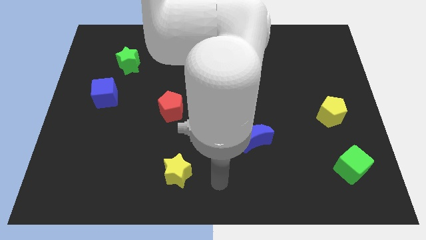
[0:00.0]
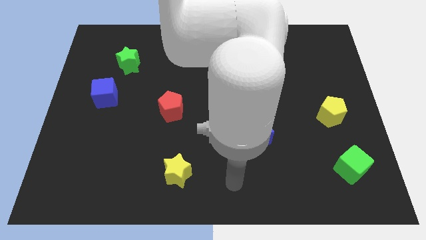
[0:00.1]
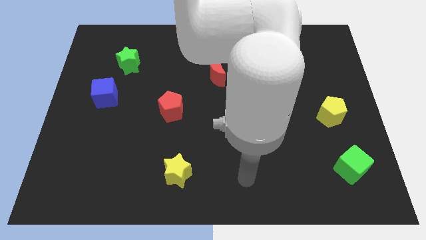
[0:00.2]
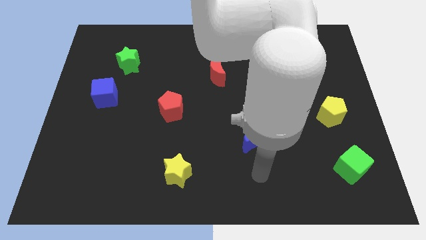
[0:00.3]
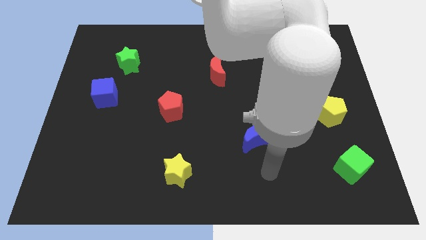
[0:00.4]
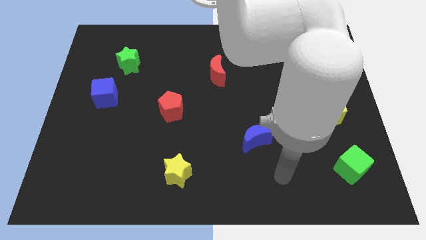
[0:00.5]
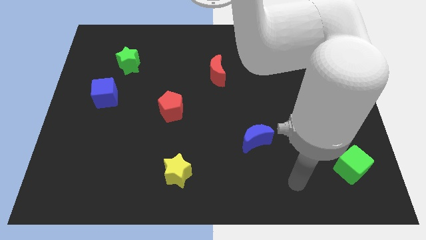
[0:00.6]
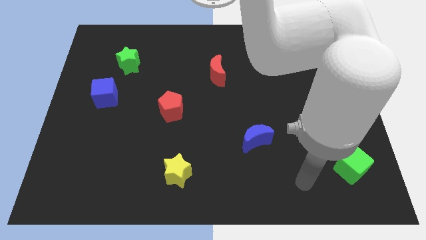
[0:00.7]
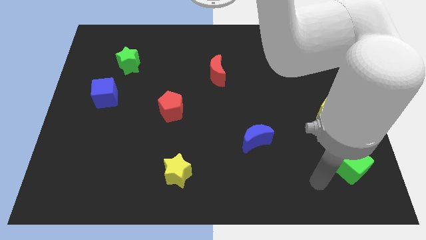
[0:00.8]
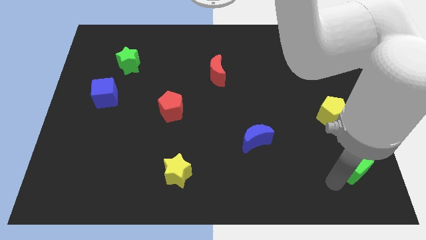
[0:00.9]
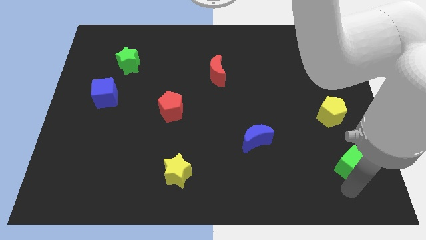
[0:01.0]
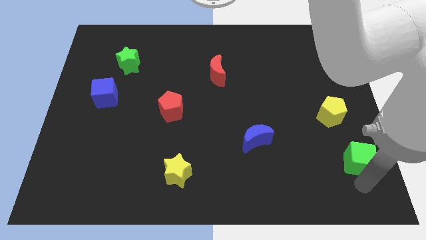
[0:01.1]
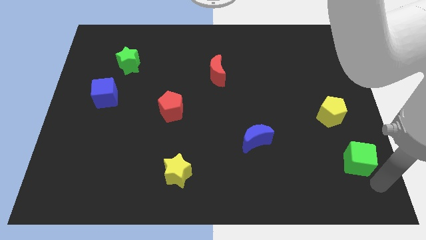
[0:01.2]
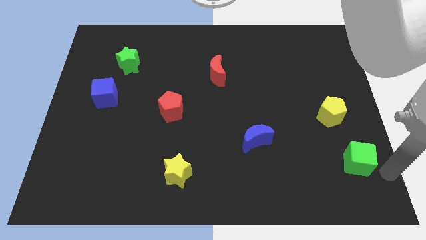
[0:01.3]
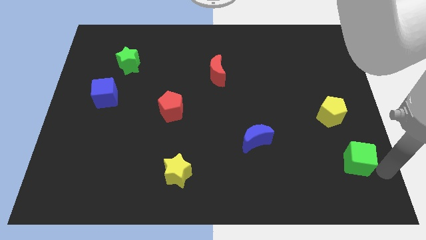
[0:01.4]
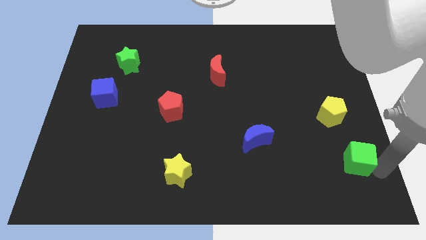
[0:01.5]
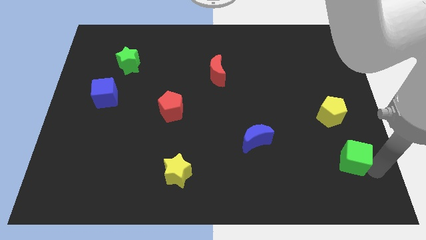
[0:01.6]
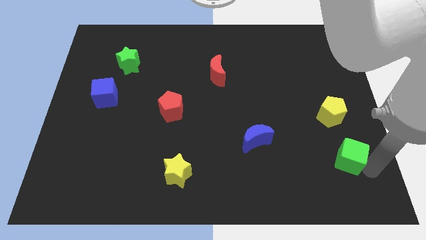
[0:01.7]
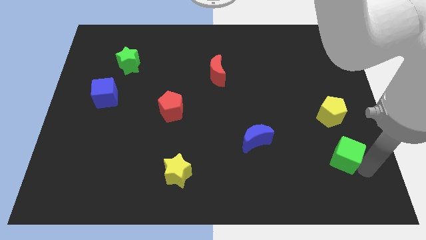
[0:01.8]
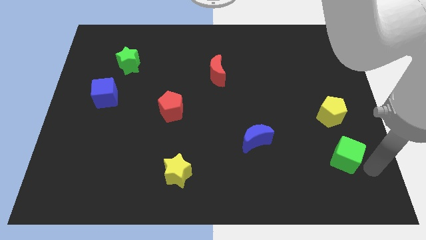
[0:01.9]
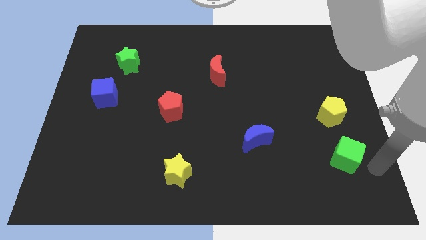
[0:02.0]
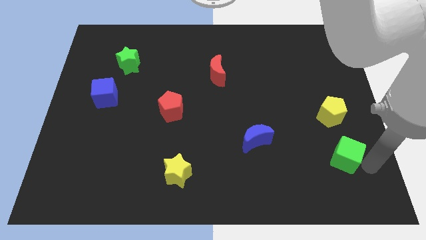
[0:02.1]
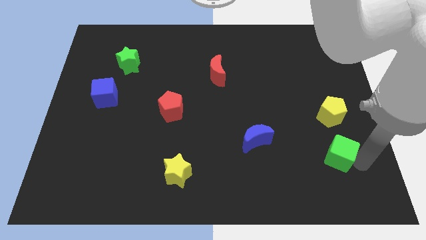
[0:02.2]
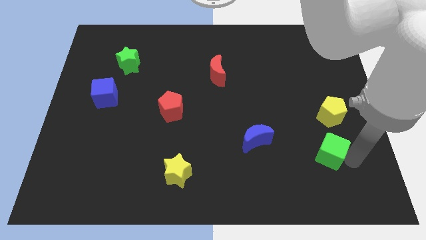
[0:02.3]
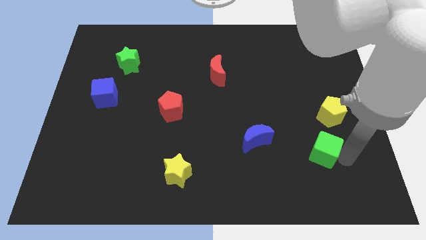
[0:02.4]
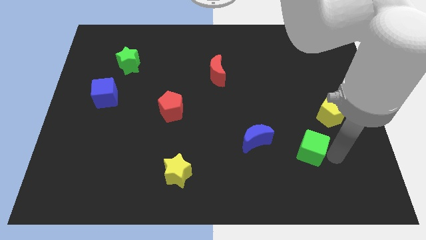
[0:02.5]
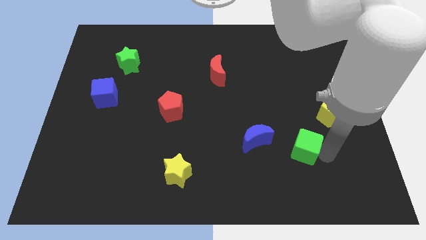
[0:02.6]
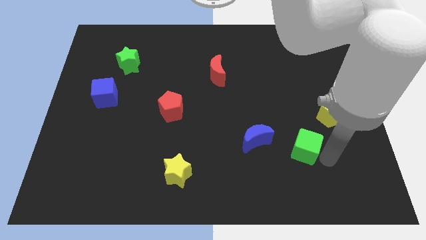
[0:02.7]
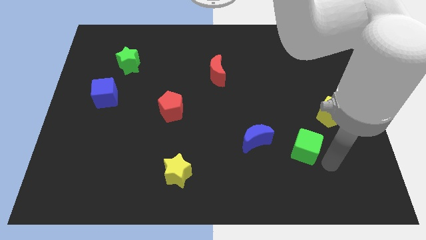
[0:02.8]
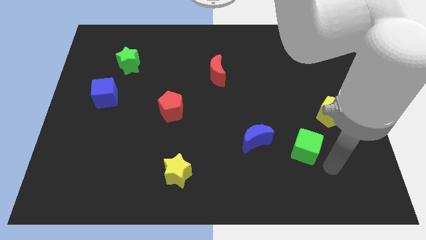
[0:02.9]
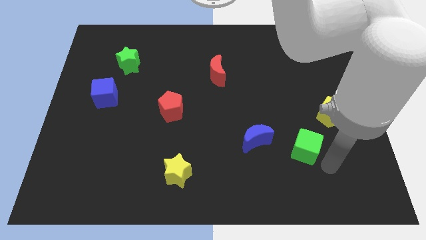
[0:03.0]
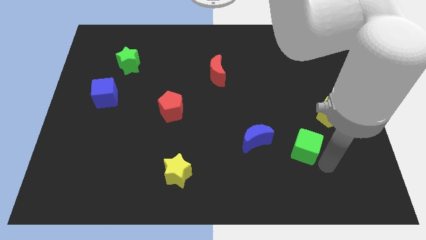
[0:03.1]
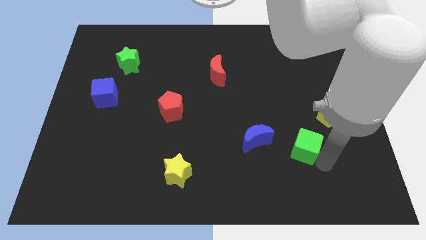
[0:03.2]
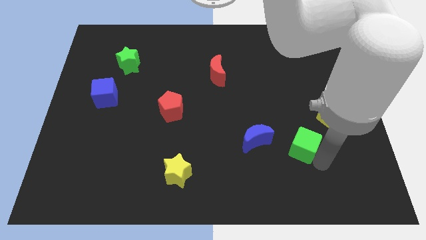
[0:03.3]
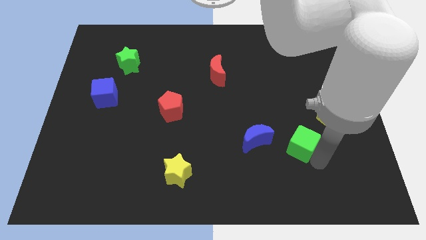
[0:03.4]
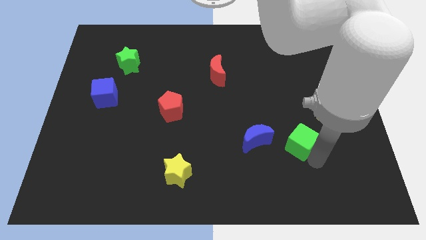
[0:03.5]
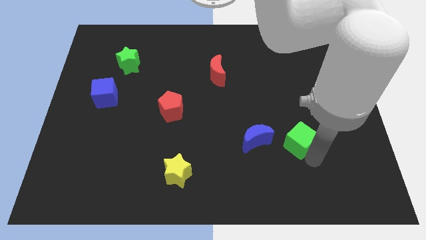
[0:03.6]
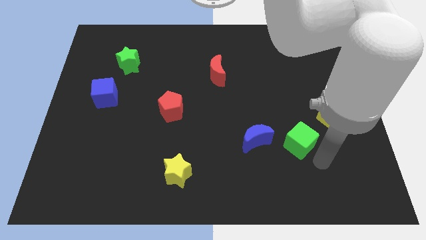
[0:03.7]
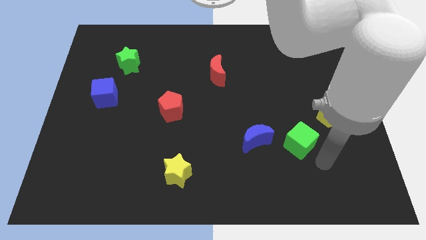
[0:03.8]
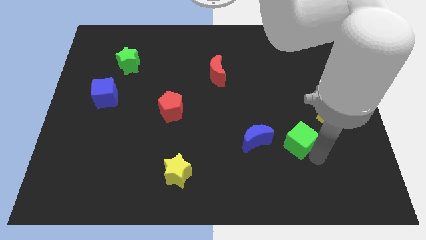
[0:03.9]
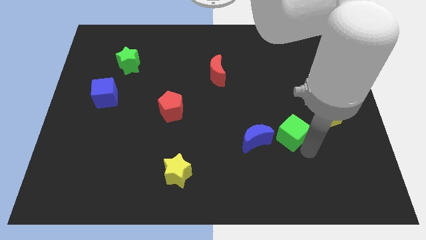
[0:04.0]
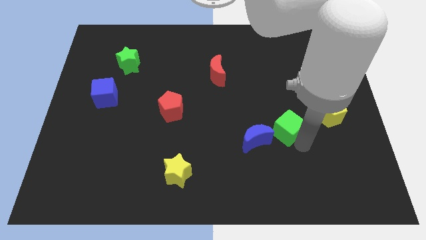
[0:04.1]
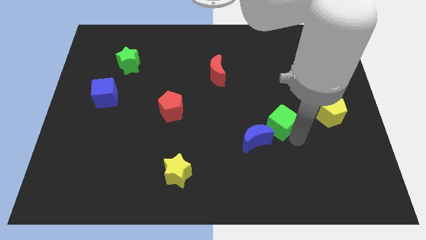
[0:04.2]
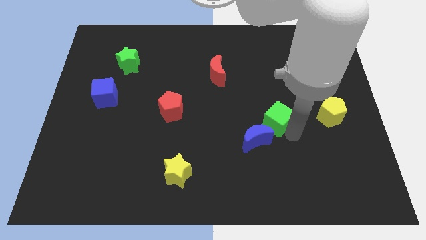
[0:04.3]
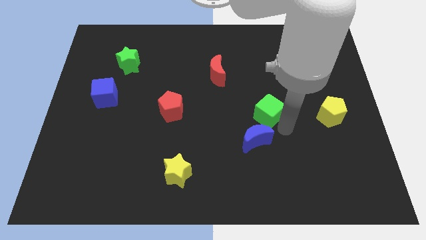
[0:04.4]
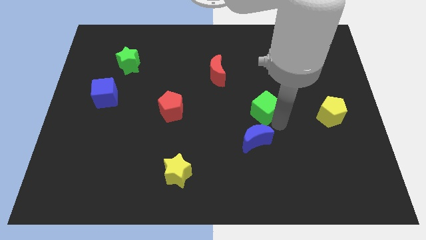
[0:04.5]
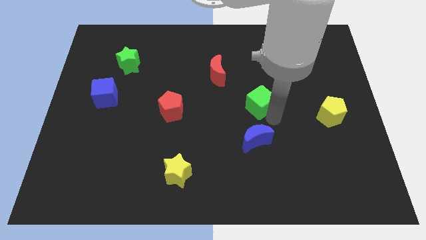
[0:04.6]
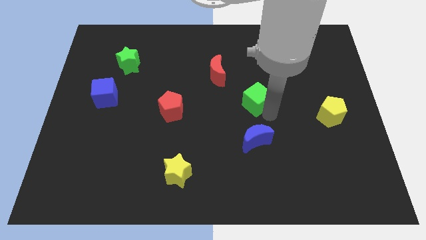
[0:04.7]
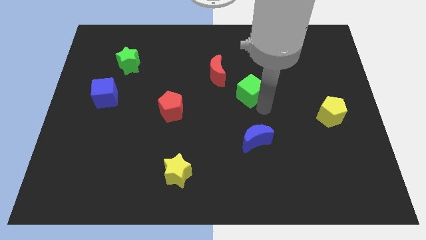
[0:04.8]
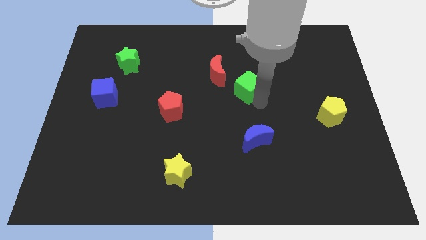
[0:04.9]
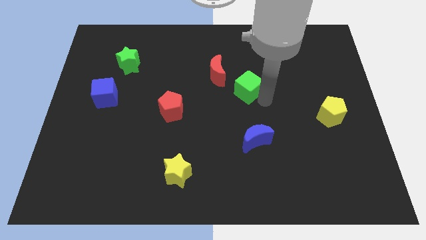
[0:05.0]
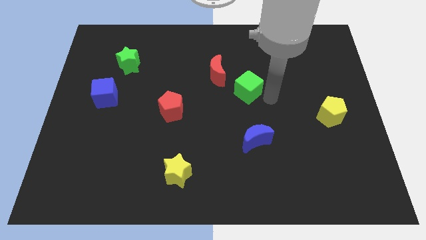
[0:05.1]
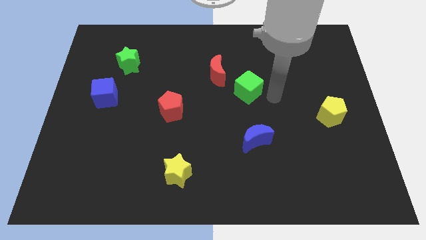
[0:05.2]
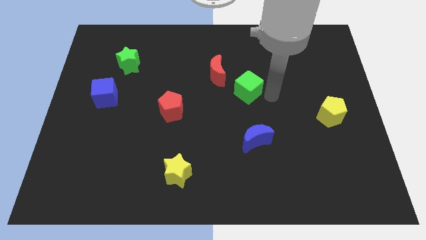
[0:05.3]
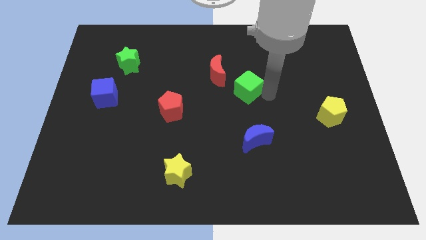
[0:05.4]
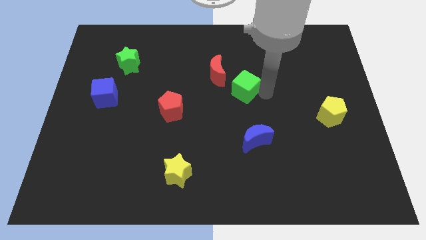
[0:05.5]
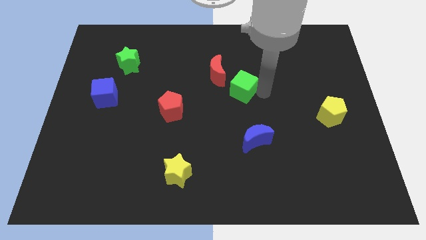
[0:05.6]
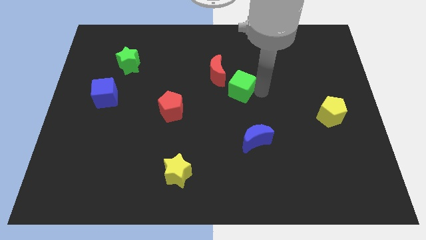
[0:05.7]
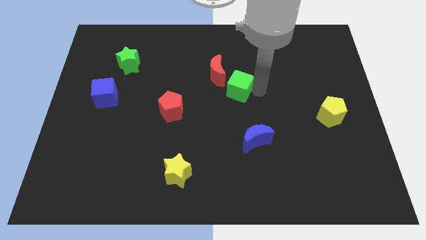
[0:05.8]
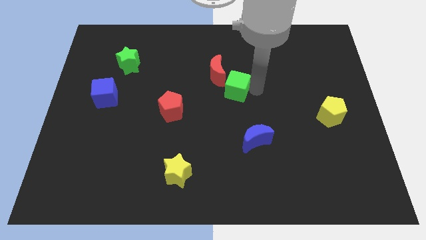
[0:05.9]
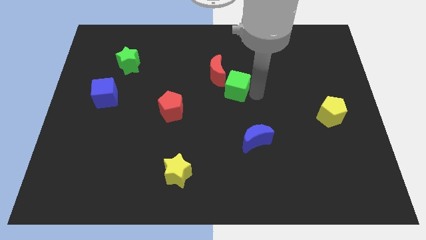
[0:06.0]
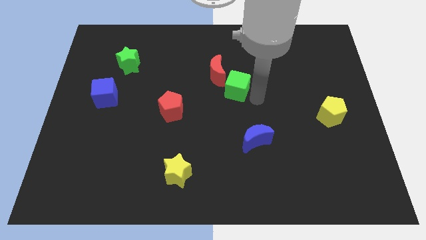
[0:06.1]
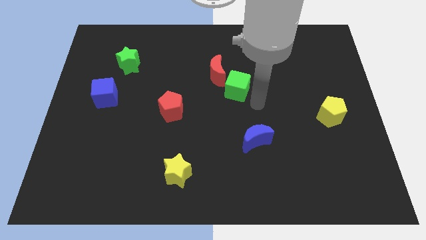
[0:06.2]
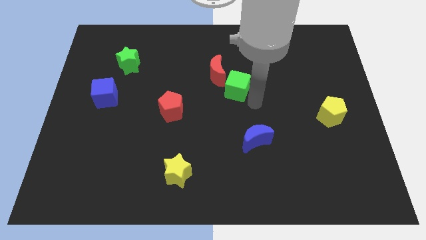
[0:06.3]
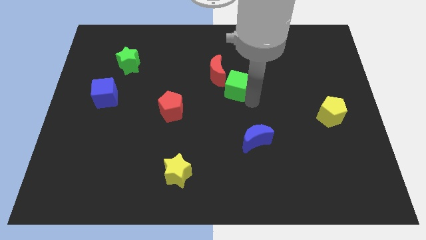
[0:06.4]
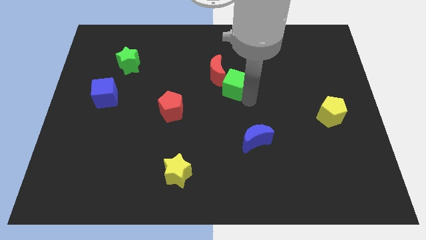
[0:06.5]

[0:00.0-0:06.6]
push the green cube close to the red moon

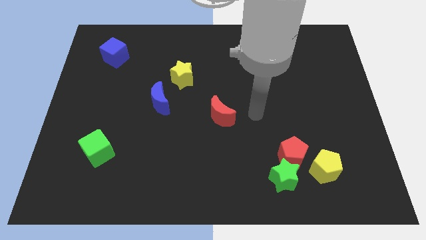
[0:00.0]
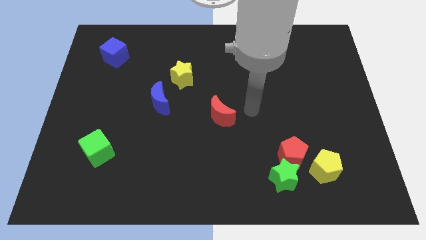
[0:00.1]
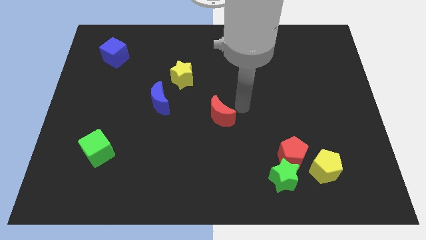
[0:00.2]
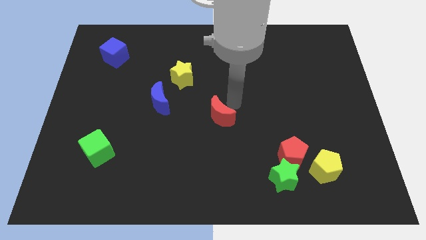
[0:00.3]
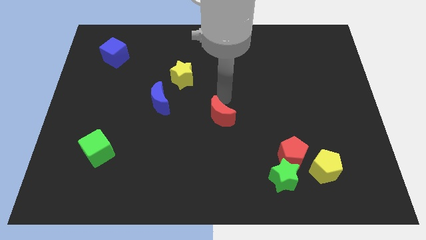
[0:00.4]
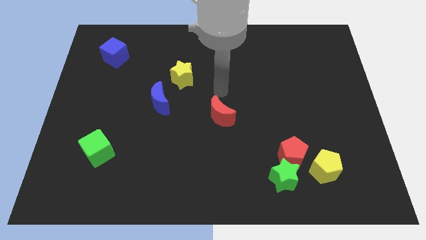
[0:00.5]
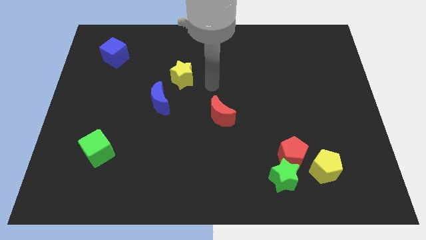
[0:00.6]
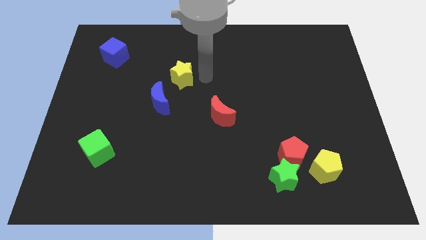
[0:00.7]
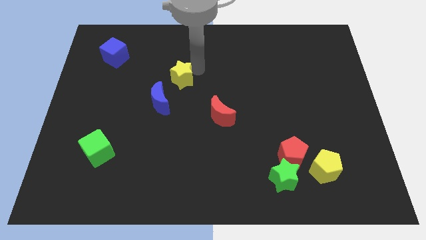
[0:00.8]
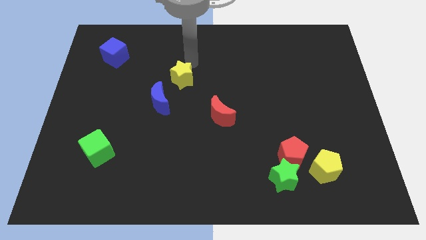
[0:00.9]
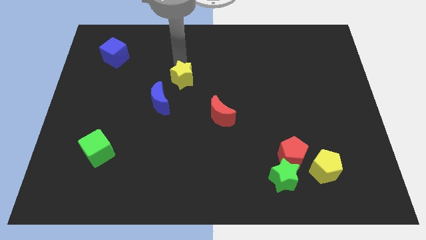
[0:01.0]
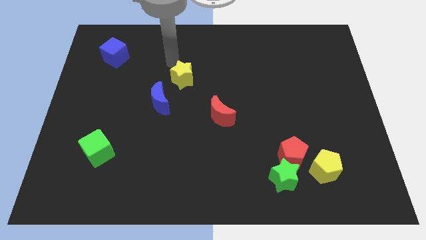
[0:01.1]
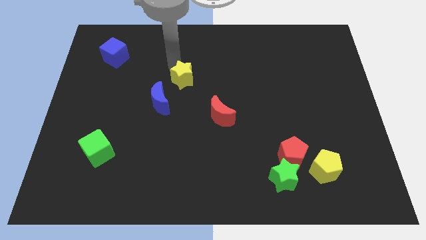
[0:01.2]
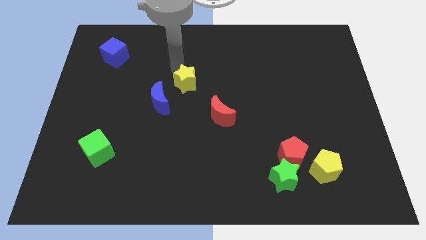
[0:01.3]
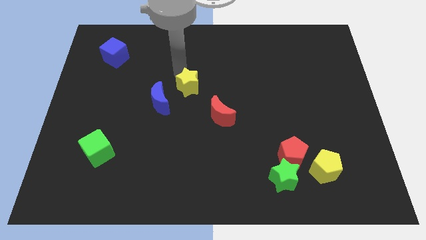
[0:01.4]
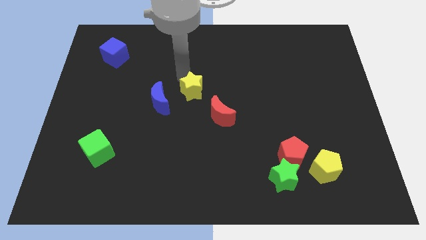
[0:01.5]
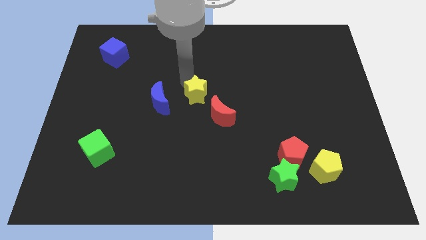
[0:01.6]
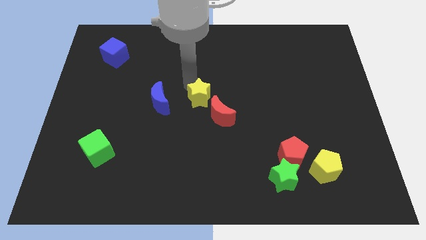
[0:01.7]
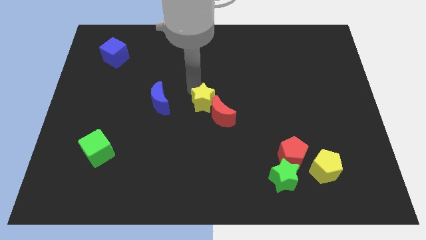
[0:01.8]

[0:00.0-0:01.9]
put the yellow star close to the red moon

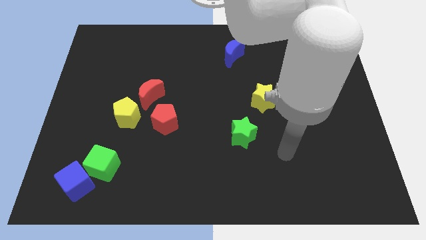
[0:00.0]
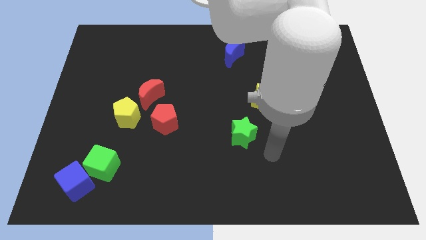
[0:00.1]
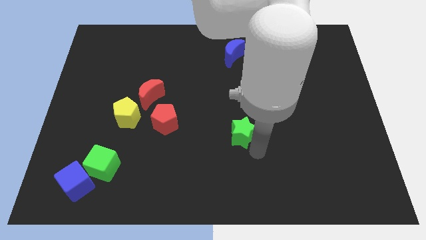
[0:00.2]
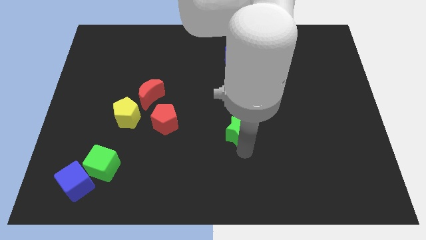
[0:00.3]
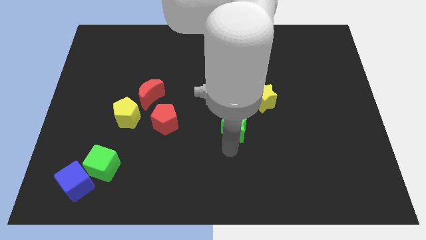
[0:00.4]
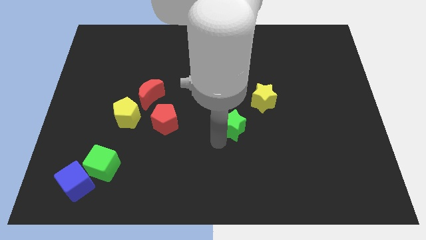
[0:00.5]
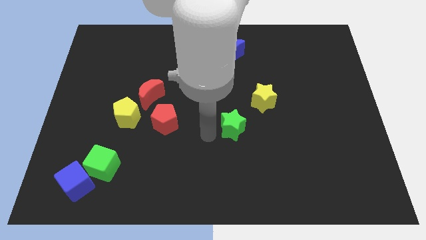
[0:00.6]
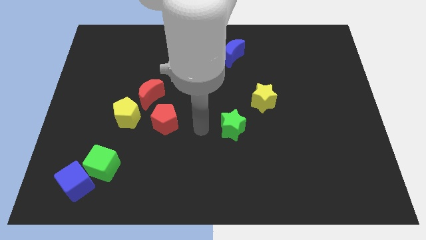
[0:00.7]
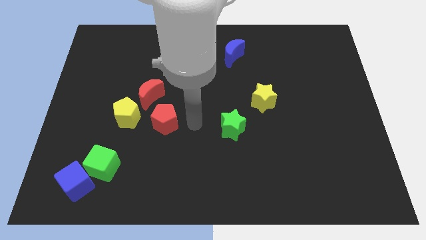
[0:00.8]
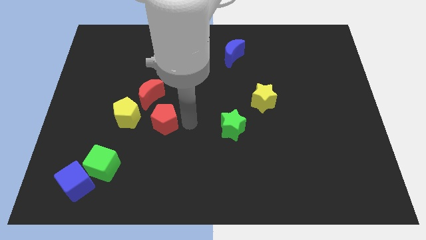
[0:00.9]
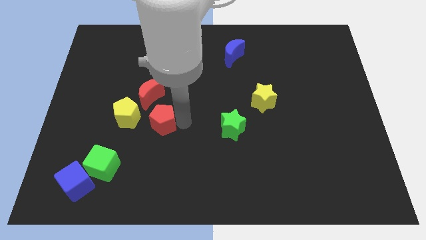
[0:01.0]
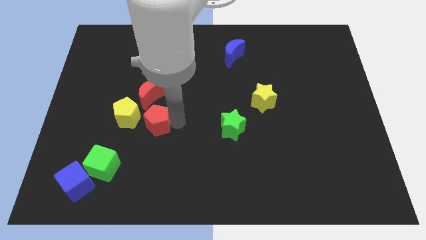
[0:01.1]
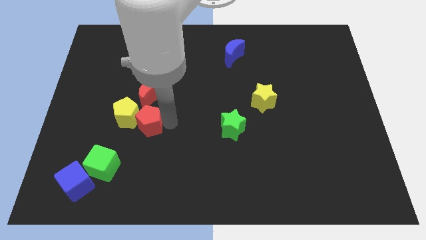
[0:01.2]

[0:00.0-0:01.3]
move the red pentagon close to the yellow pentagon
